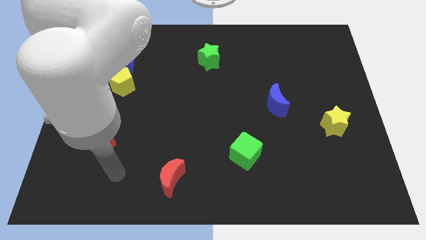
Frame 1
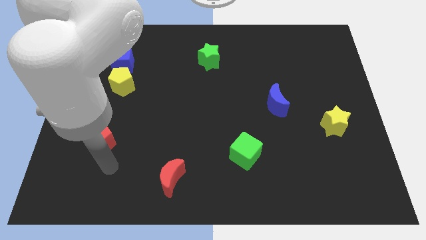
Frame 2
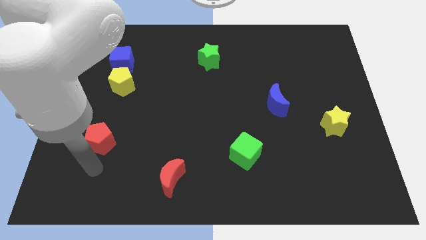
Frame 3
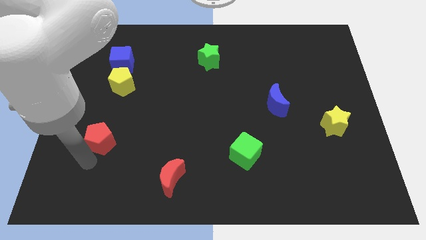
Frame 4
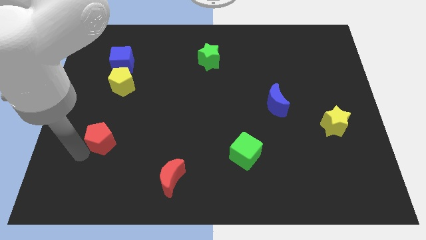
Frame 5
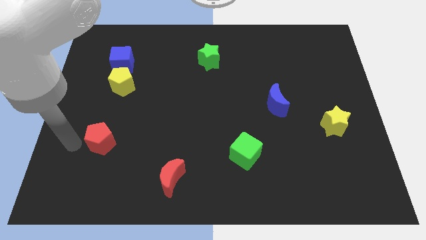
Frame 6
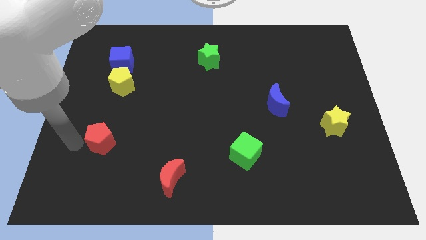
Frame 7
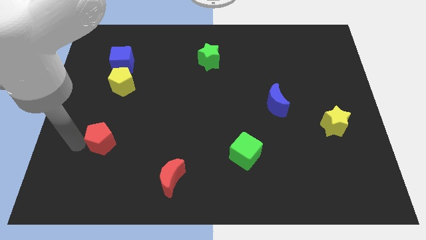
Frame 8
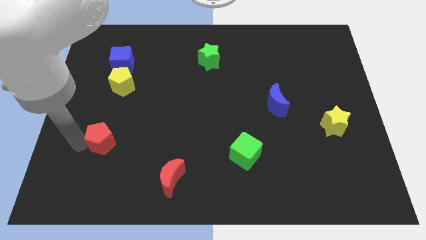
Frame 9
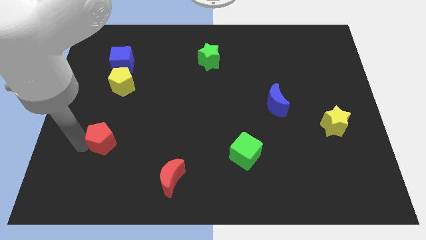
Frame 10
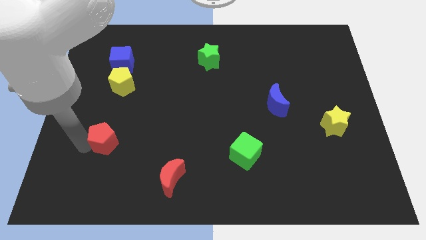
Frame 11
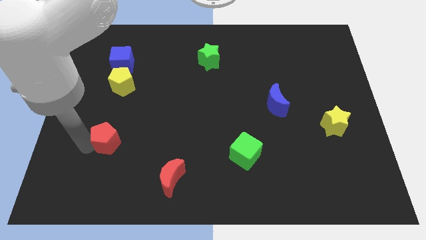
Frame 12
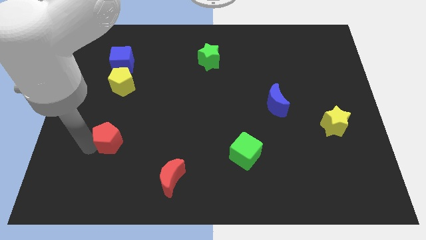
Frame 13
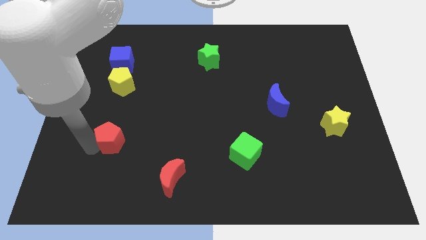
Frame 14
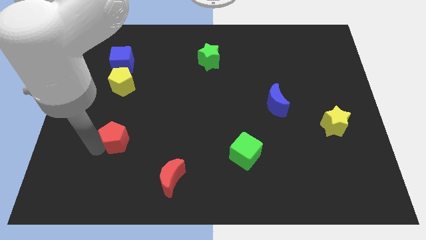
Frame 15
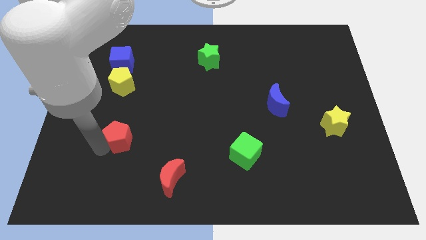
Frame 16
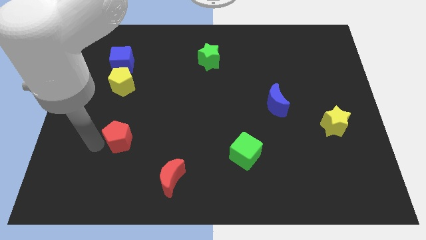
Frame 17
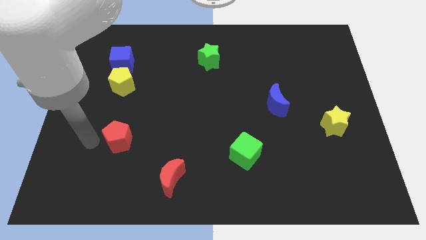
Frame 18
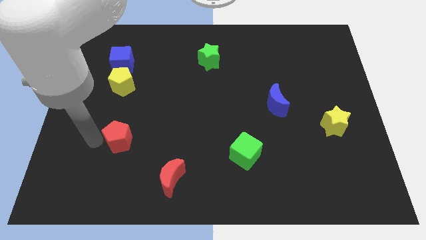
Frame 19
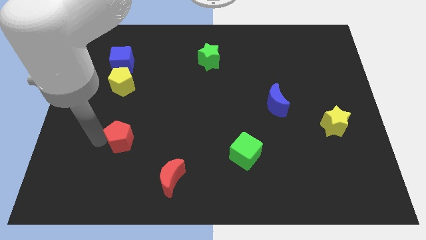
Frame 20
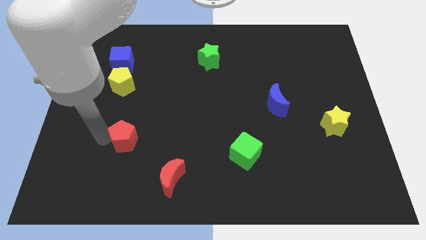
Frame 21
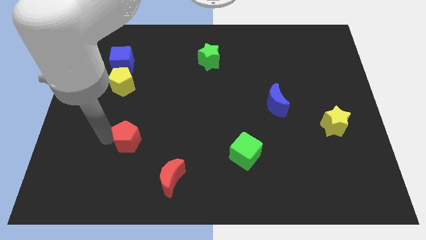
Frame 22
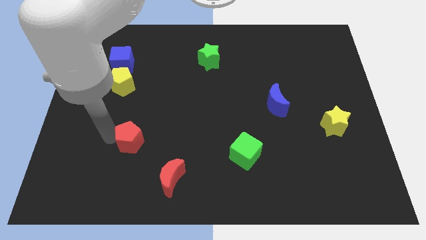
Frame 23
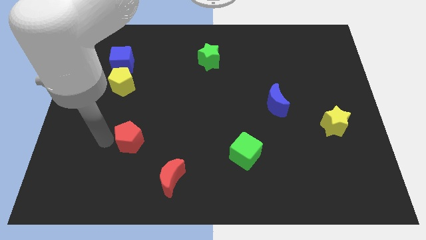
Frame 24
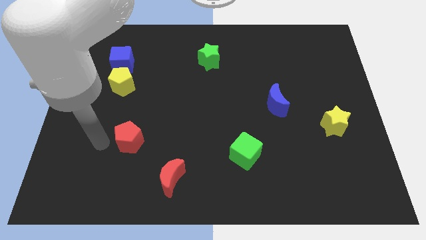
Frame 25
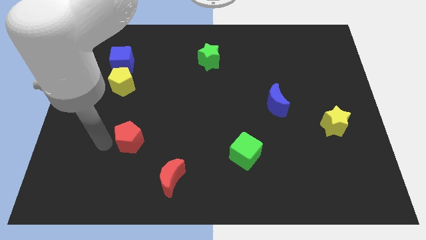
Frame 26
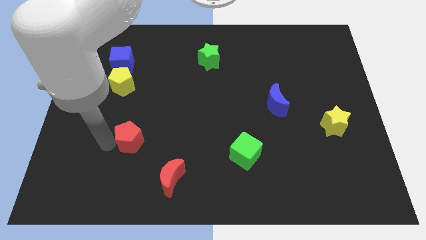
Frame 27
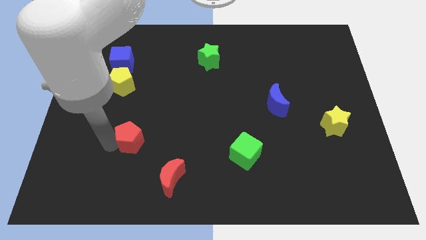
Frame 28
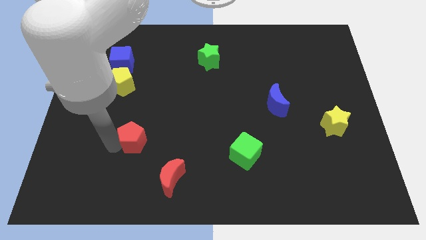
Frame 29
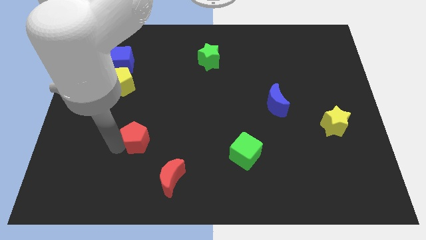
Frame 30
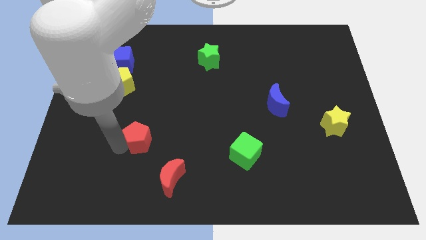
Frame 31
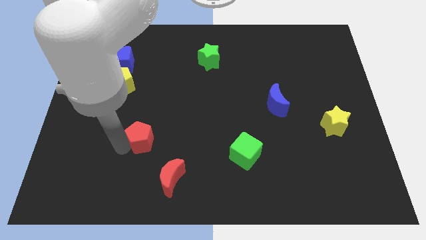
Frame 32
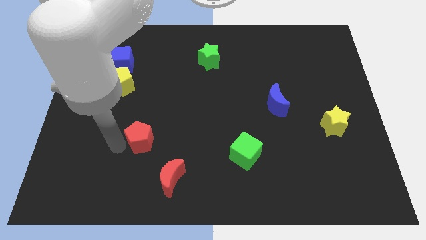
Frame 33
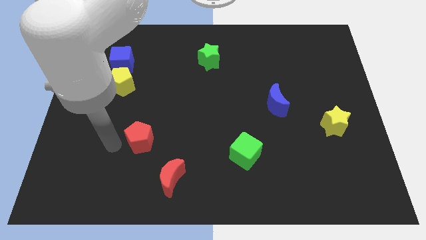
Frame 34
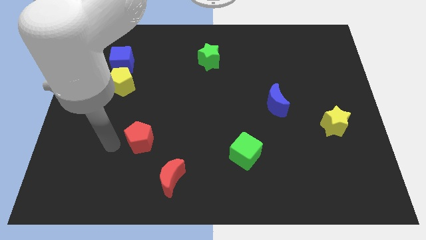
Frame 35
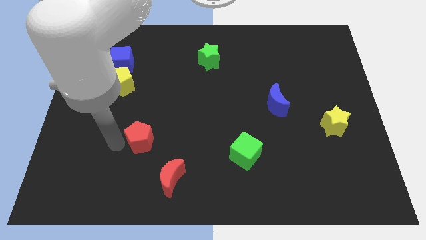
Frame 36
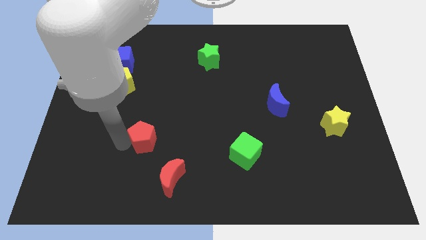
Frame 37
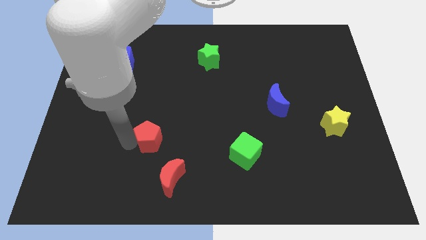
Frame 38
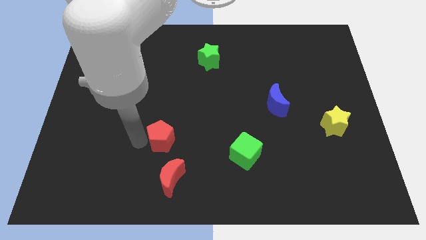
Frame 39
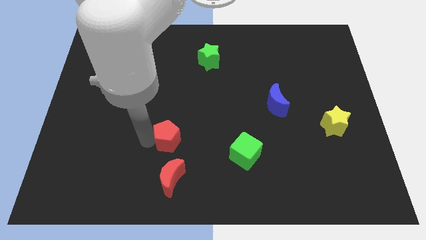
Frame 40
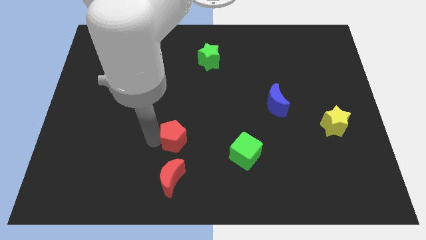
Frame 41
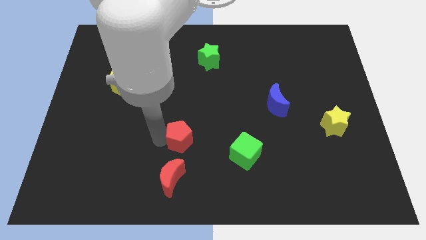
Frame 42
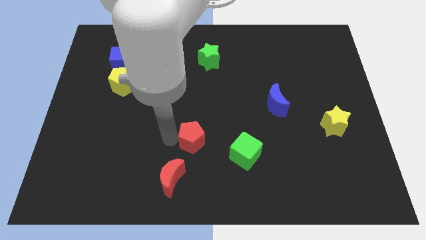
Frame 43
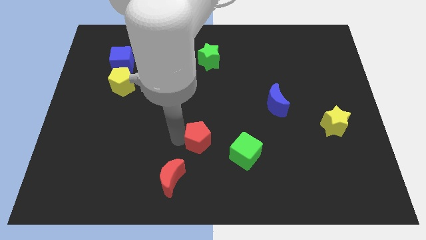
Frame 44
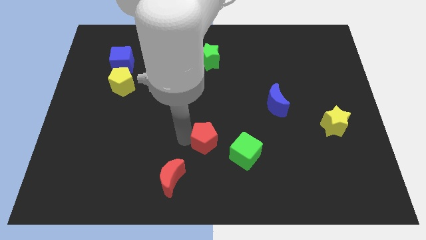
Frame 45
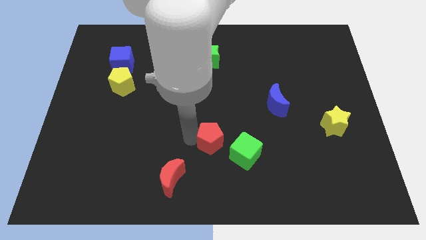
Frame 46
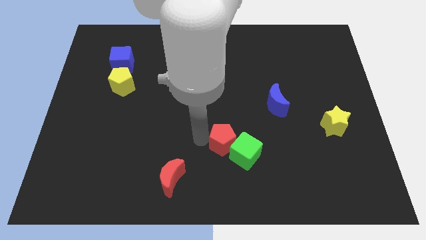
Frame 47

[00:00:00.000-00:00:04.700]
move the red pentagon to the green cube

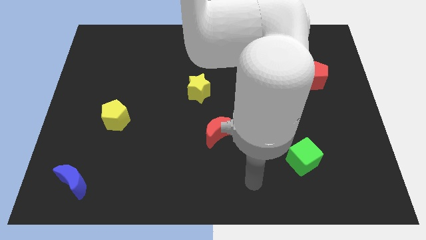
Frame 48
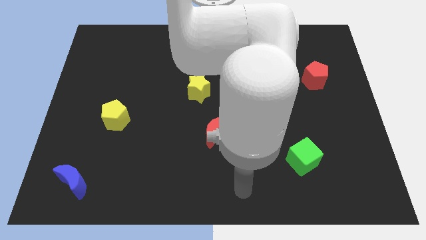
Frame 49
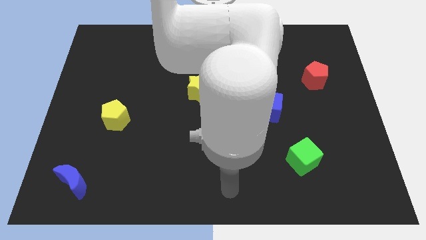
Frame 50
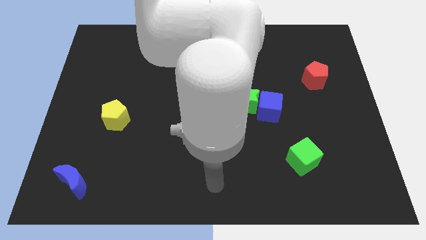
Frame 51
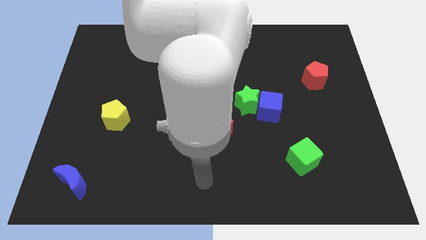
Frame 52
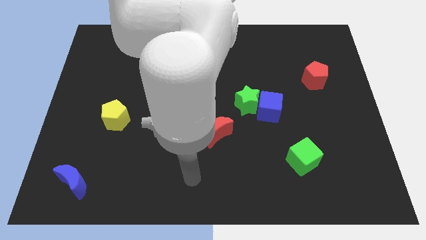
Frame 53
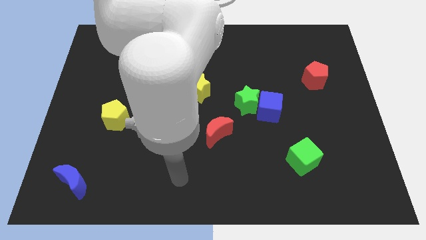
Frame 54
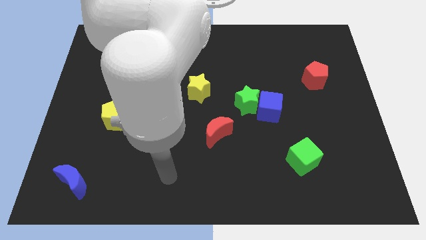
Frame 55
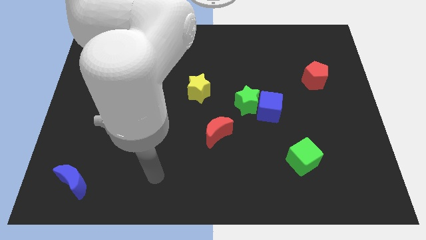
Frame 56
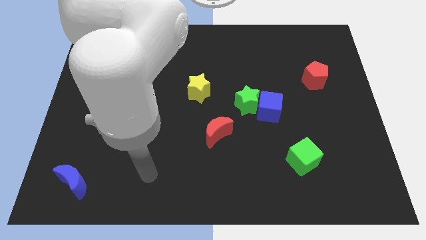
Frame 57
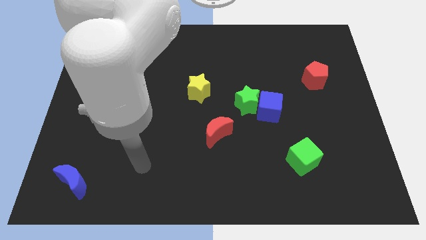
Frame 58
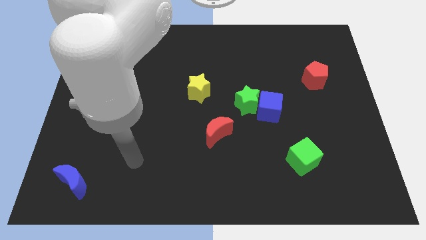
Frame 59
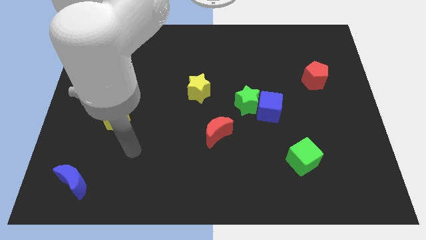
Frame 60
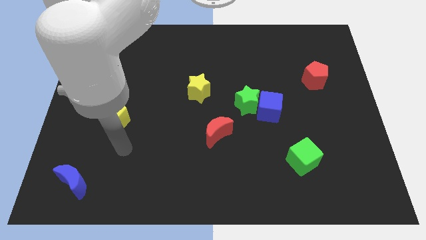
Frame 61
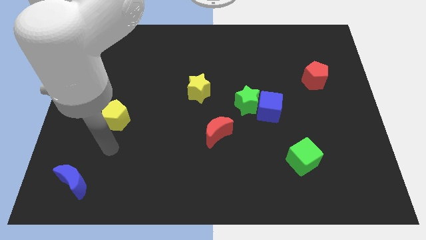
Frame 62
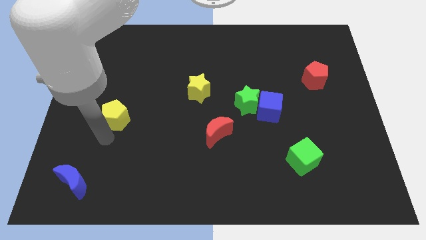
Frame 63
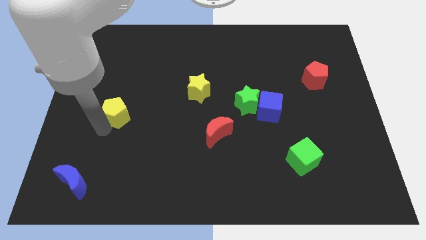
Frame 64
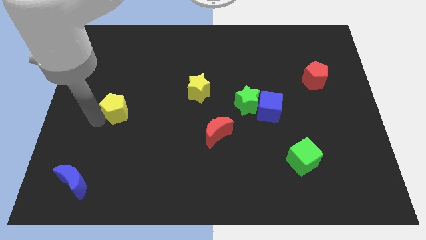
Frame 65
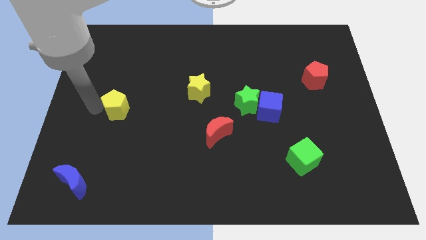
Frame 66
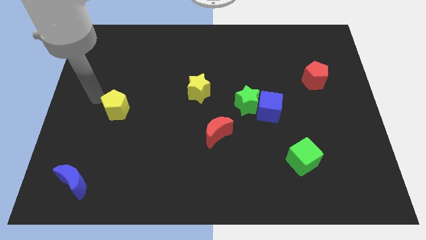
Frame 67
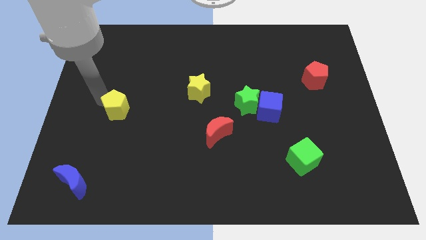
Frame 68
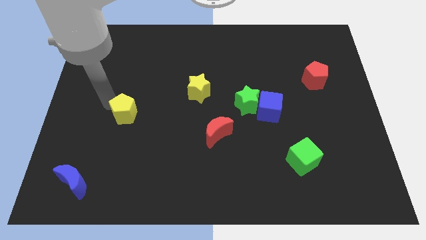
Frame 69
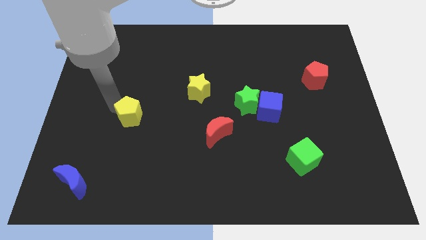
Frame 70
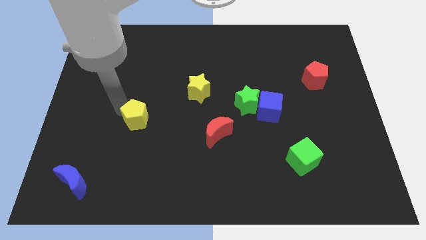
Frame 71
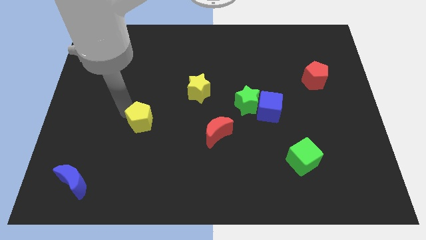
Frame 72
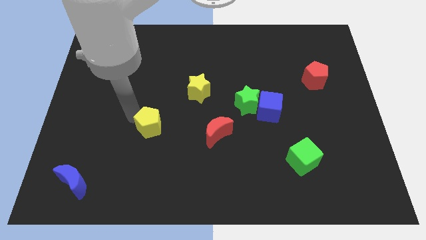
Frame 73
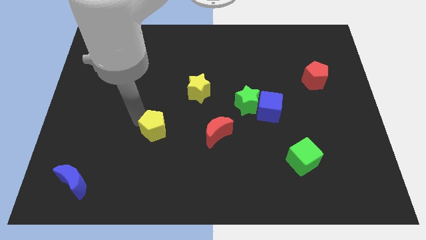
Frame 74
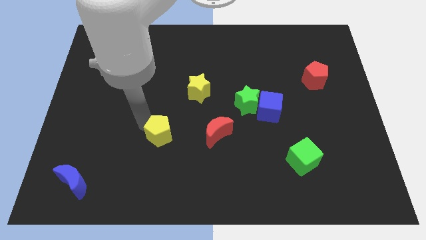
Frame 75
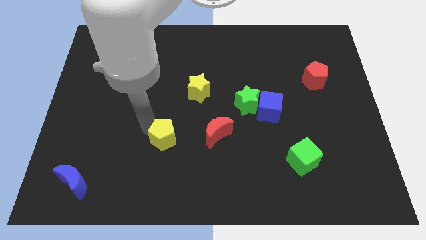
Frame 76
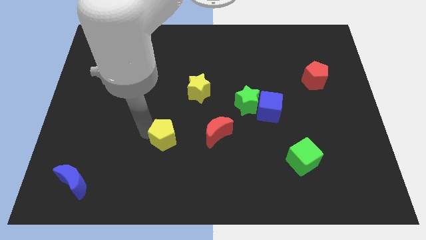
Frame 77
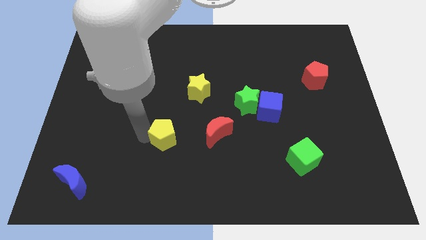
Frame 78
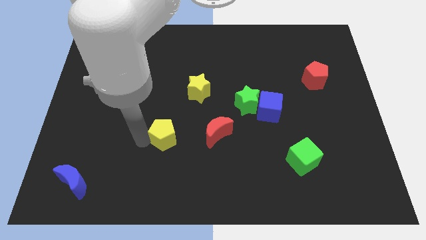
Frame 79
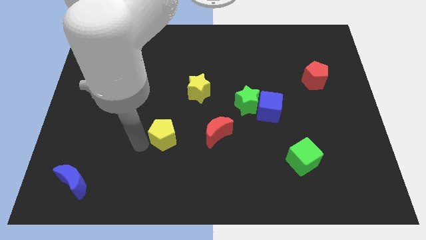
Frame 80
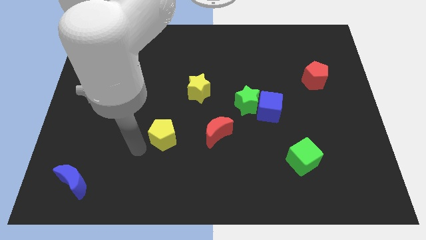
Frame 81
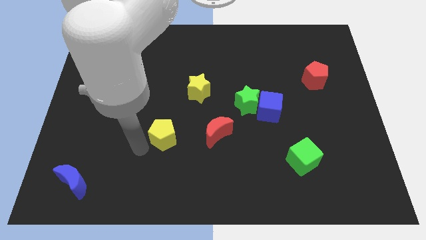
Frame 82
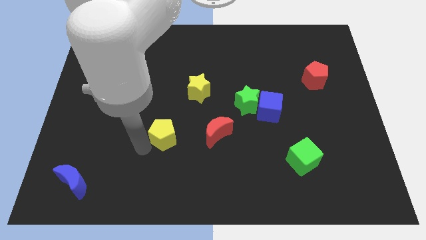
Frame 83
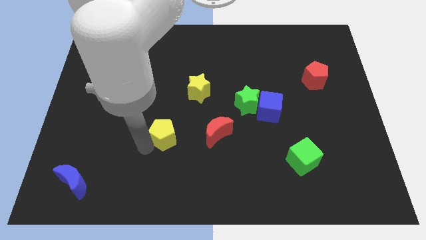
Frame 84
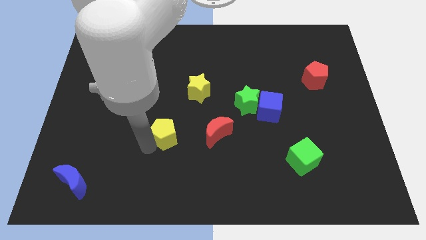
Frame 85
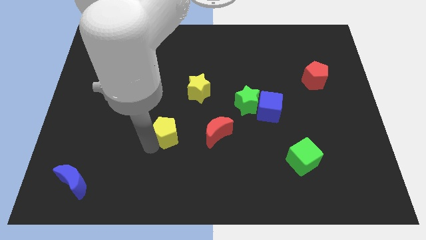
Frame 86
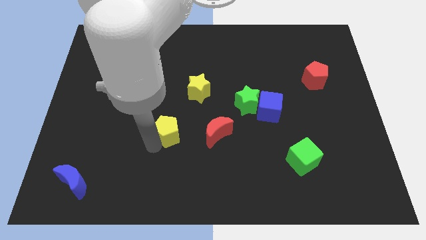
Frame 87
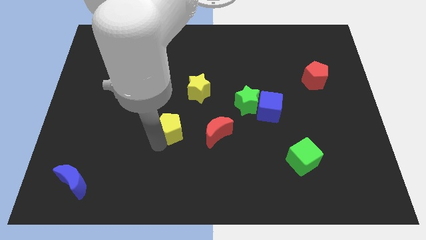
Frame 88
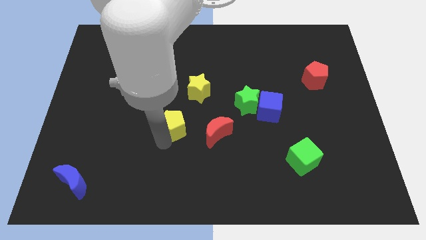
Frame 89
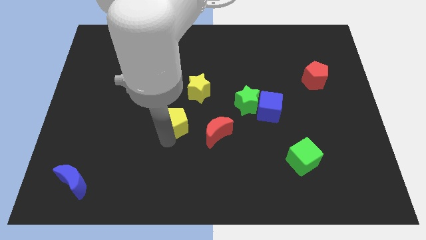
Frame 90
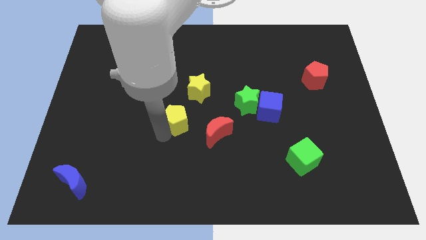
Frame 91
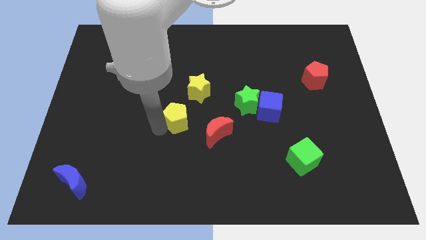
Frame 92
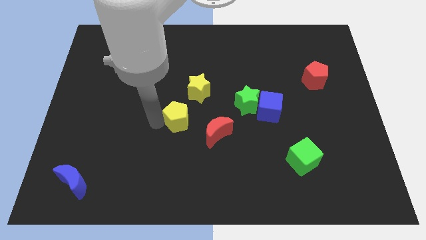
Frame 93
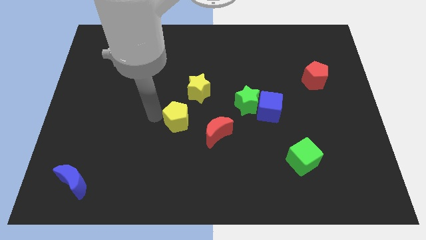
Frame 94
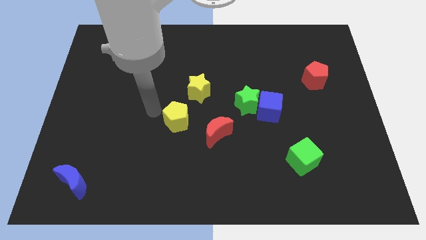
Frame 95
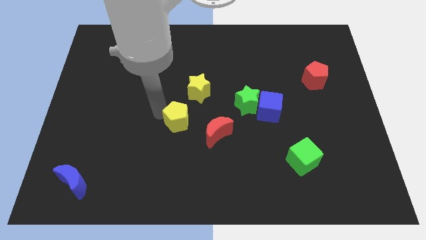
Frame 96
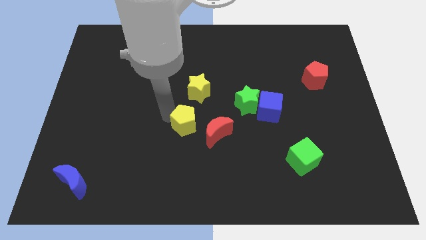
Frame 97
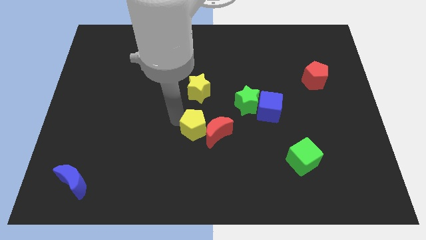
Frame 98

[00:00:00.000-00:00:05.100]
put the yellow pentagon to the red moon
